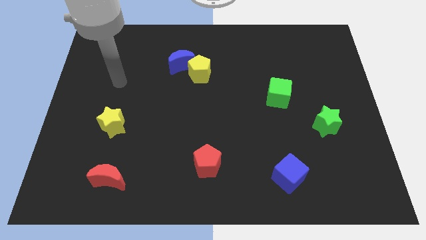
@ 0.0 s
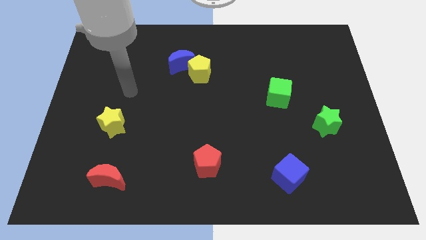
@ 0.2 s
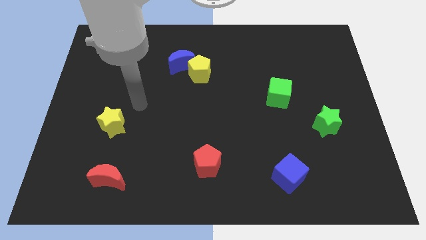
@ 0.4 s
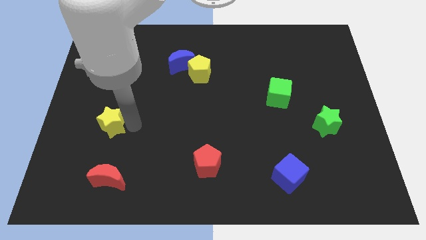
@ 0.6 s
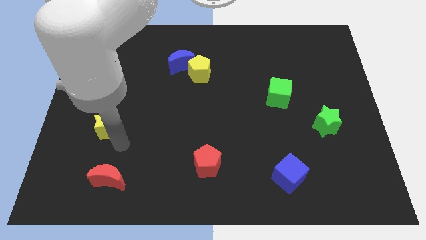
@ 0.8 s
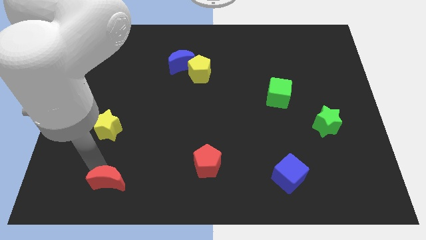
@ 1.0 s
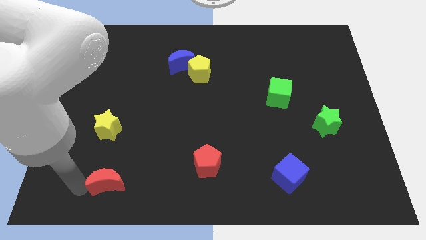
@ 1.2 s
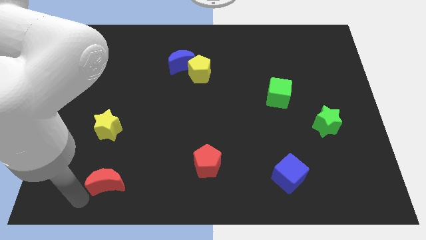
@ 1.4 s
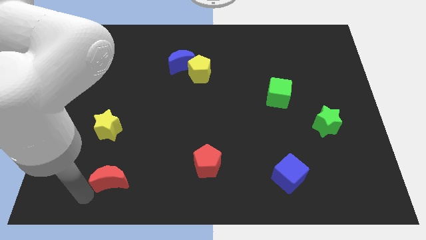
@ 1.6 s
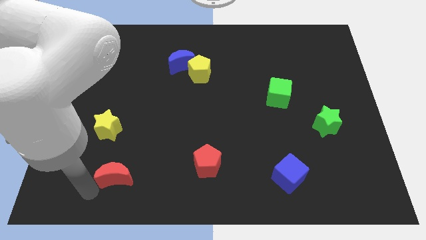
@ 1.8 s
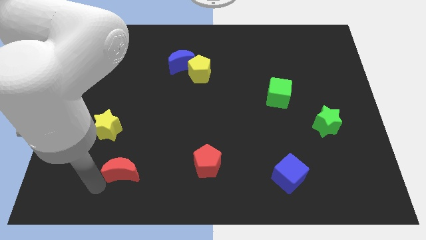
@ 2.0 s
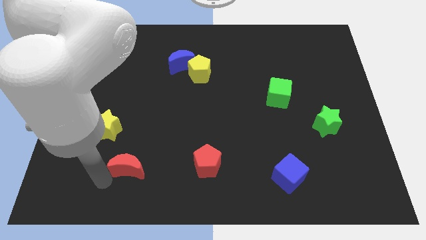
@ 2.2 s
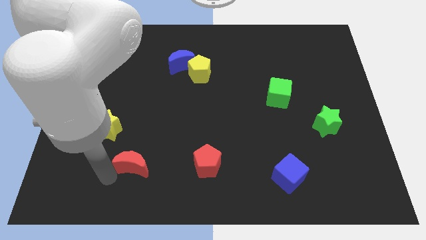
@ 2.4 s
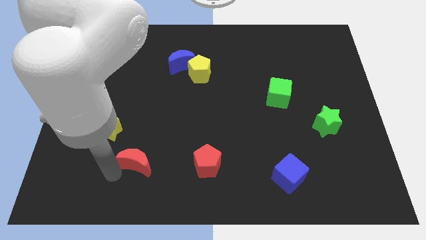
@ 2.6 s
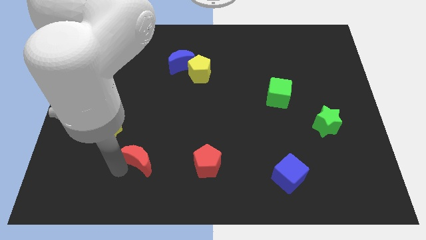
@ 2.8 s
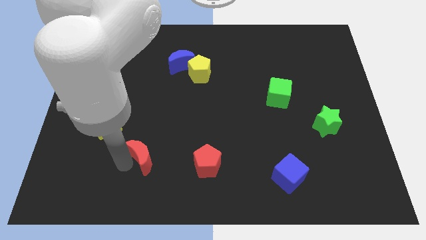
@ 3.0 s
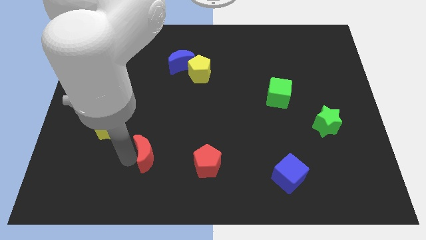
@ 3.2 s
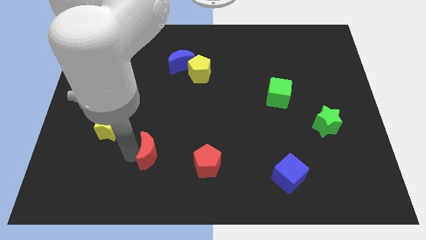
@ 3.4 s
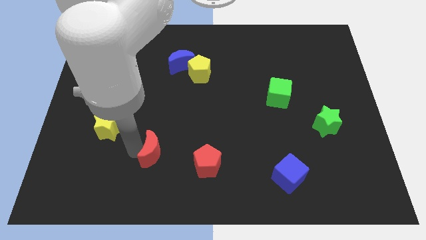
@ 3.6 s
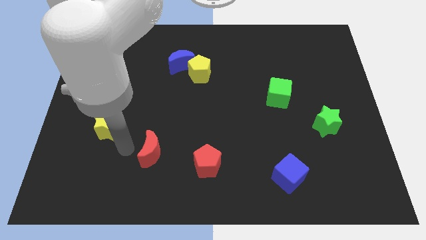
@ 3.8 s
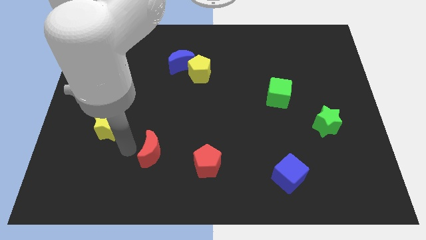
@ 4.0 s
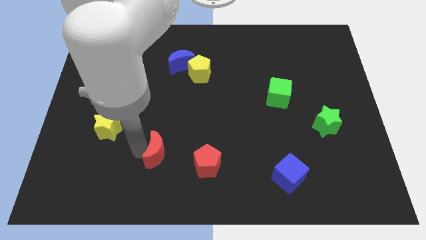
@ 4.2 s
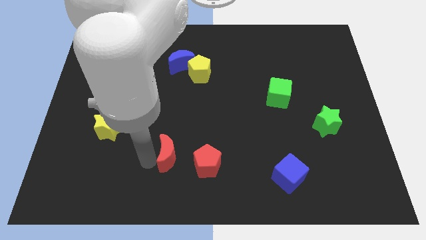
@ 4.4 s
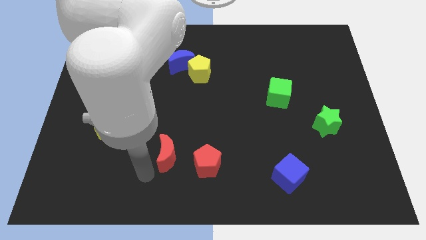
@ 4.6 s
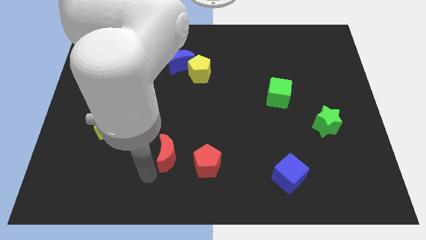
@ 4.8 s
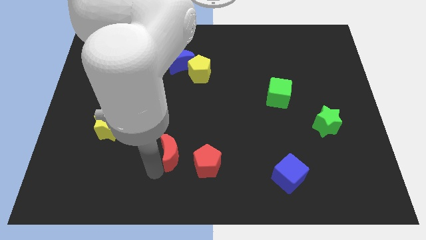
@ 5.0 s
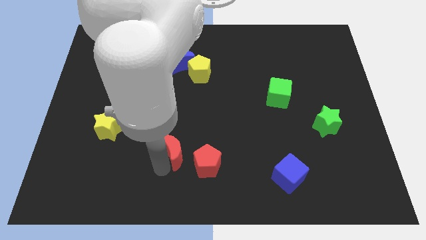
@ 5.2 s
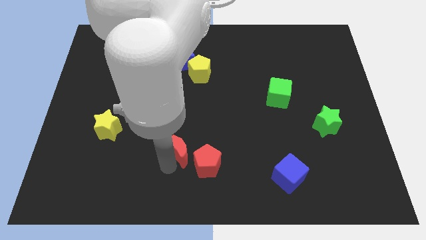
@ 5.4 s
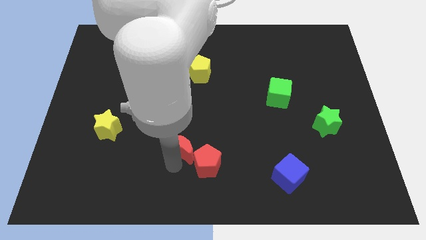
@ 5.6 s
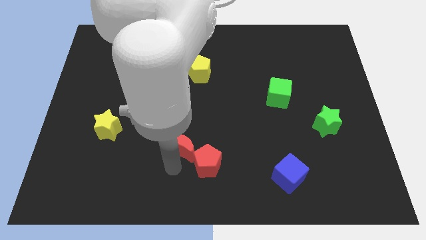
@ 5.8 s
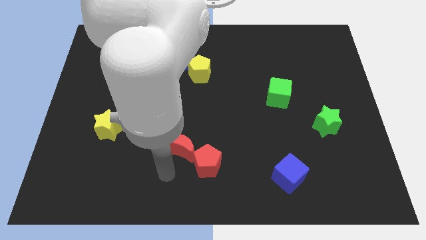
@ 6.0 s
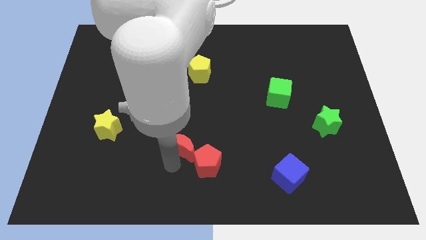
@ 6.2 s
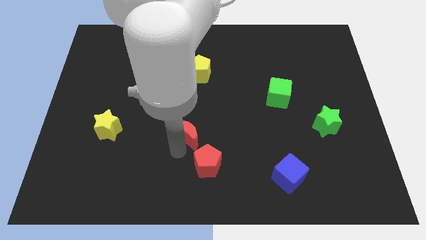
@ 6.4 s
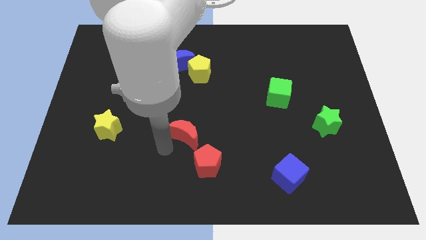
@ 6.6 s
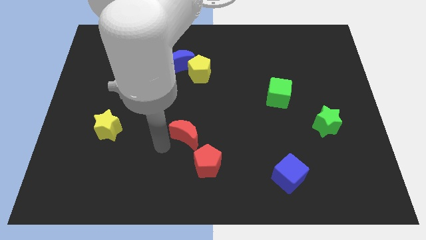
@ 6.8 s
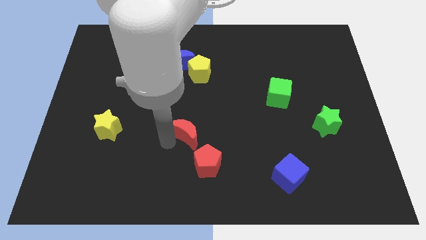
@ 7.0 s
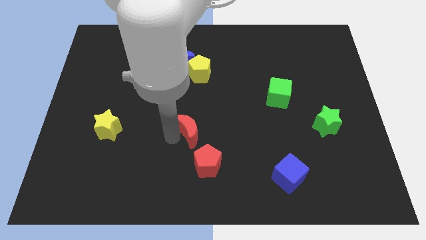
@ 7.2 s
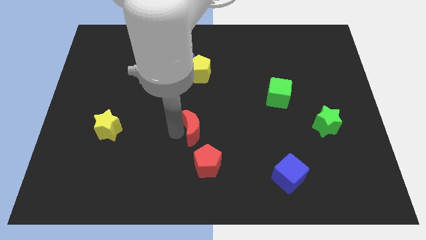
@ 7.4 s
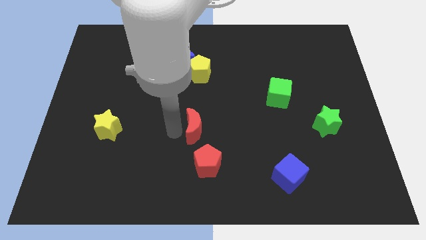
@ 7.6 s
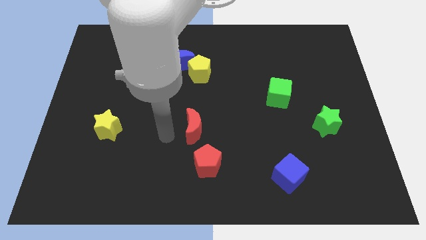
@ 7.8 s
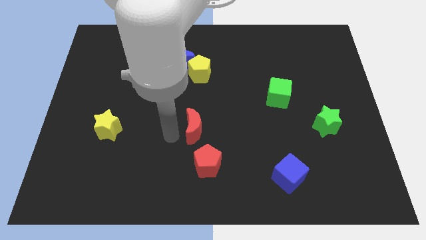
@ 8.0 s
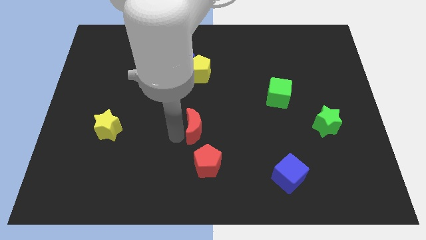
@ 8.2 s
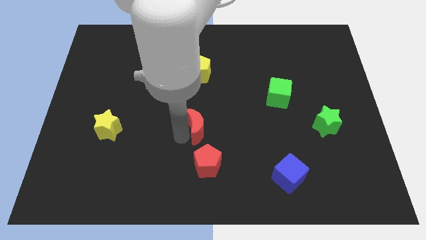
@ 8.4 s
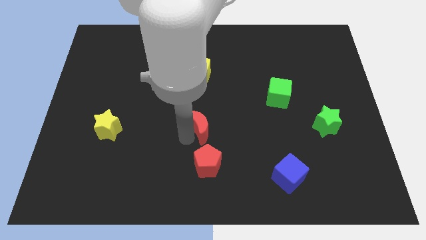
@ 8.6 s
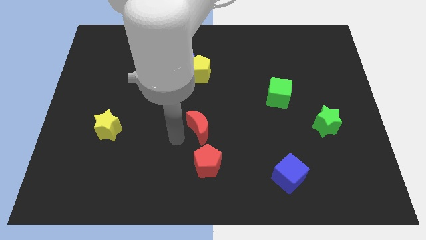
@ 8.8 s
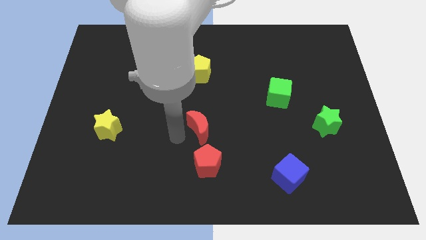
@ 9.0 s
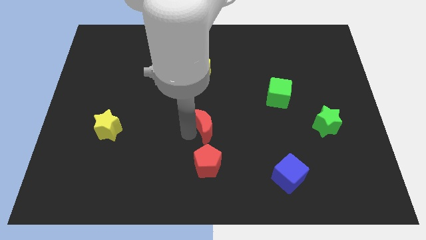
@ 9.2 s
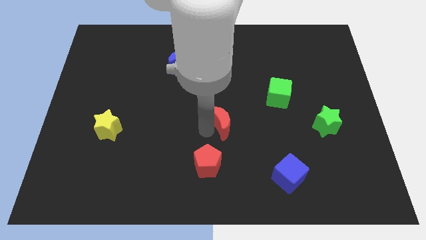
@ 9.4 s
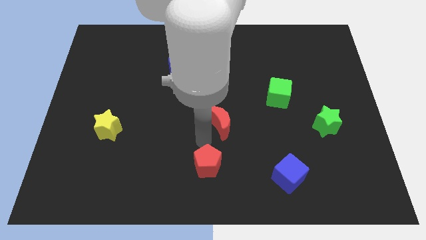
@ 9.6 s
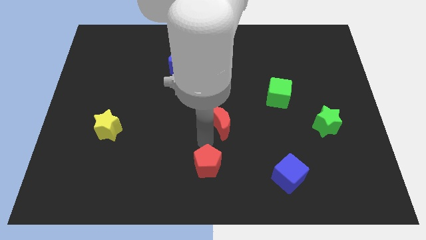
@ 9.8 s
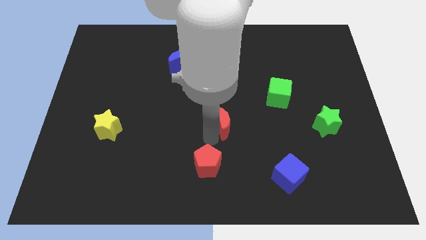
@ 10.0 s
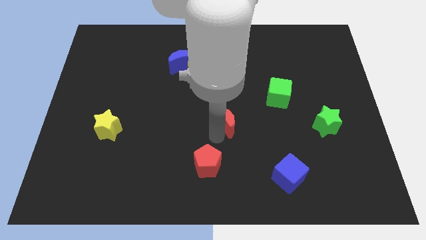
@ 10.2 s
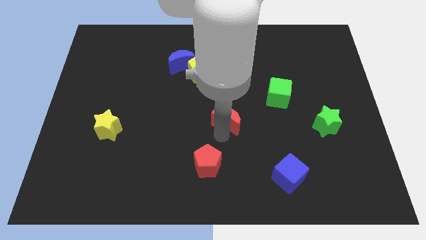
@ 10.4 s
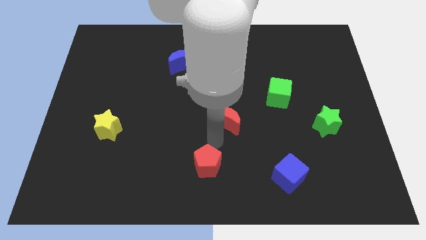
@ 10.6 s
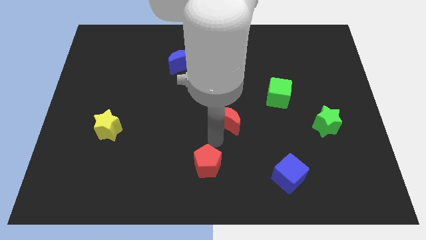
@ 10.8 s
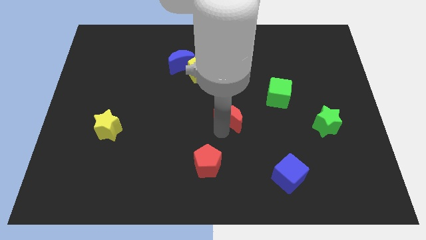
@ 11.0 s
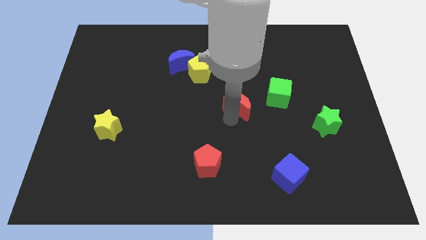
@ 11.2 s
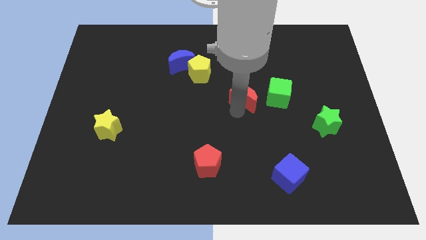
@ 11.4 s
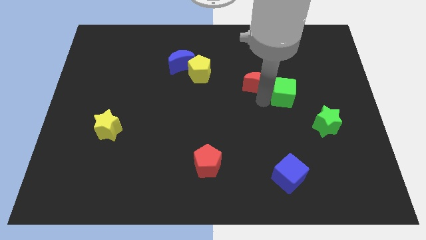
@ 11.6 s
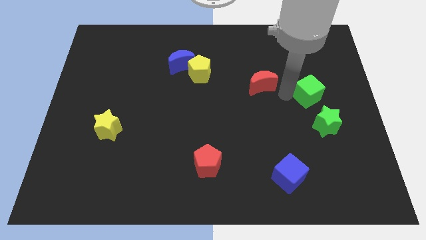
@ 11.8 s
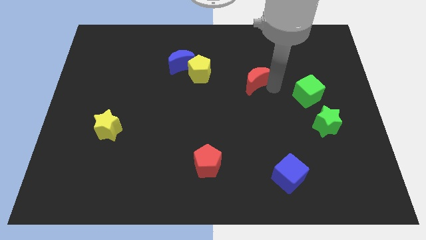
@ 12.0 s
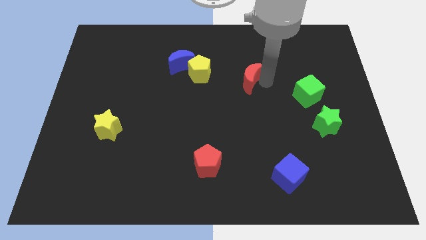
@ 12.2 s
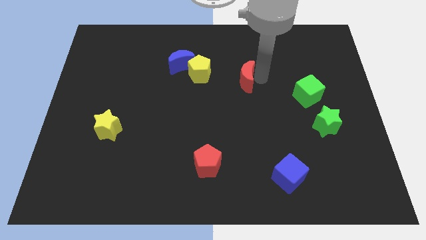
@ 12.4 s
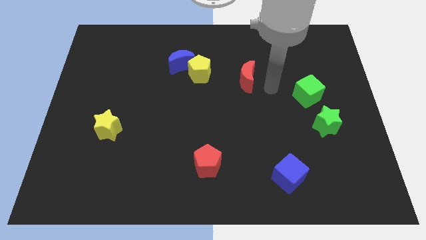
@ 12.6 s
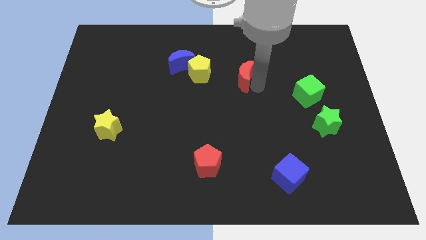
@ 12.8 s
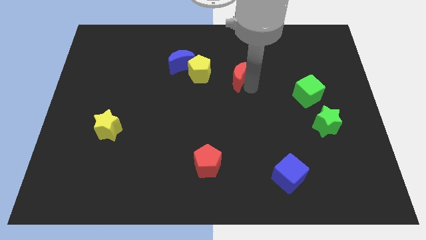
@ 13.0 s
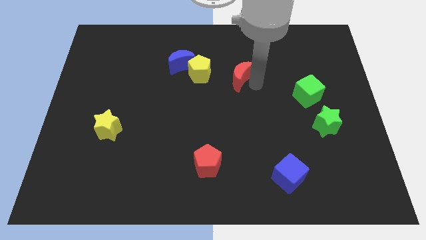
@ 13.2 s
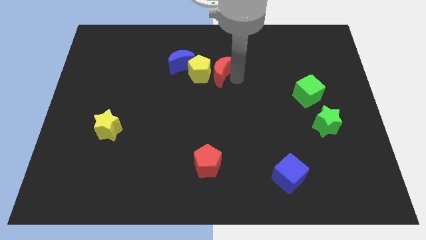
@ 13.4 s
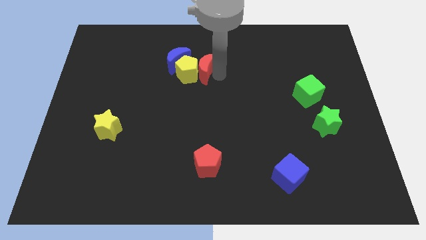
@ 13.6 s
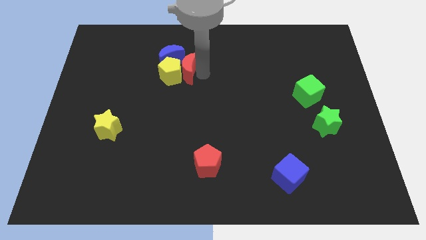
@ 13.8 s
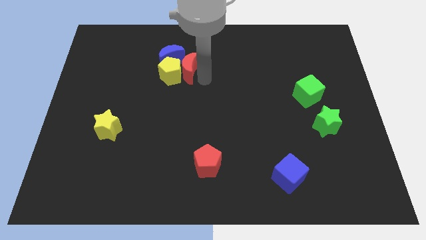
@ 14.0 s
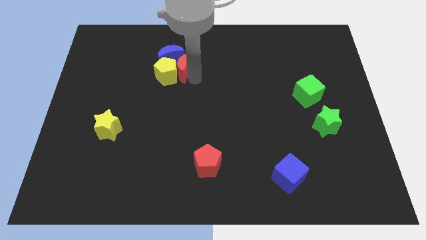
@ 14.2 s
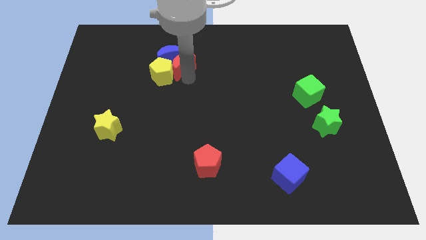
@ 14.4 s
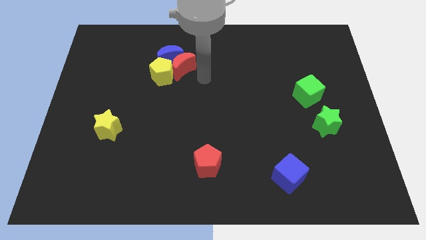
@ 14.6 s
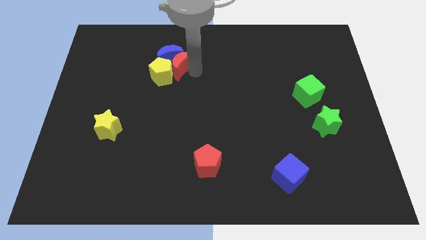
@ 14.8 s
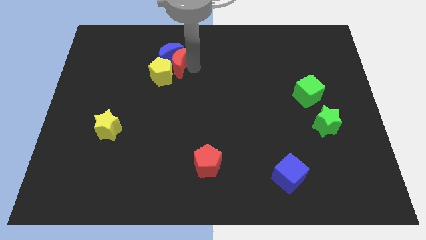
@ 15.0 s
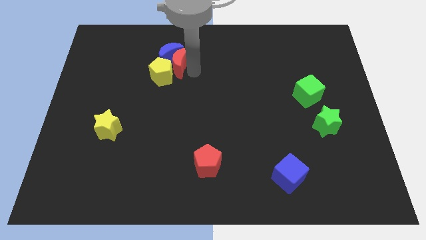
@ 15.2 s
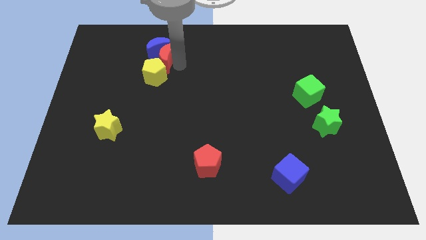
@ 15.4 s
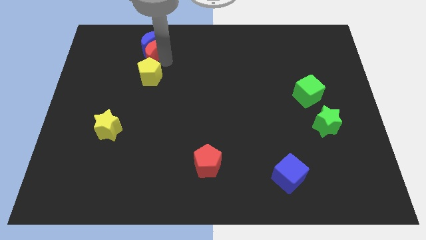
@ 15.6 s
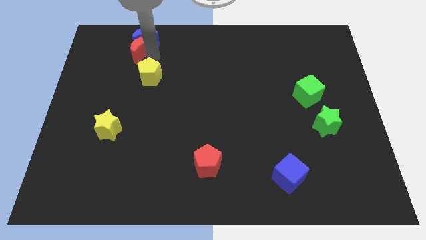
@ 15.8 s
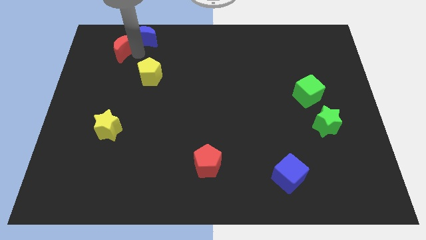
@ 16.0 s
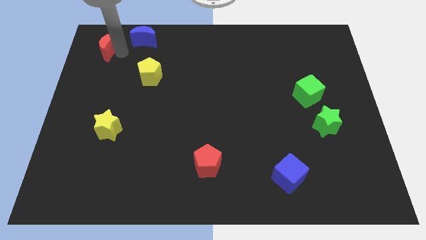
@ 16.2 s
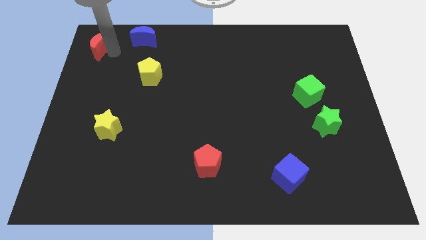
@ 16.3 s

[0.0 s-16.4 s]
slide the red moon to the upper left corner
